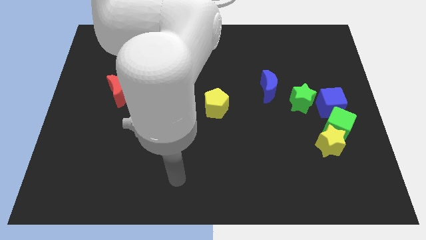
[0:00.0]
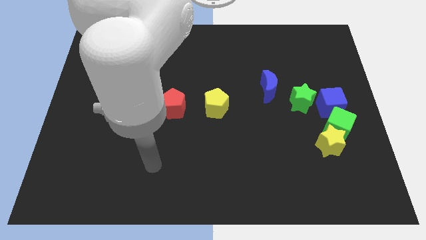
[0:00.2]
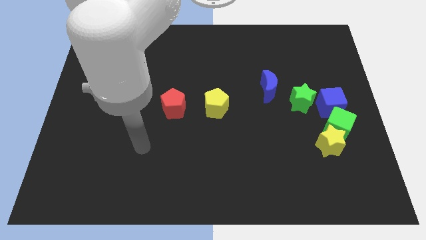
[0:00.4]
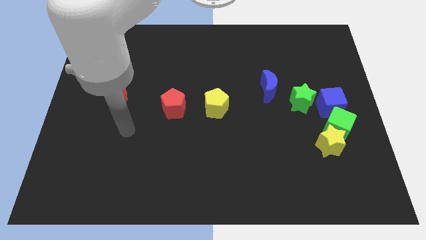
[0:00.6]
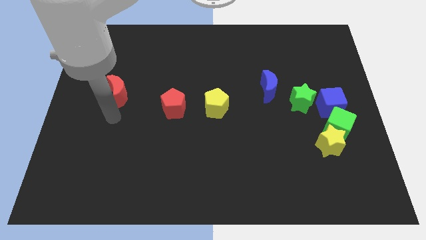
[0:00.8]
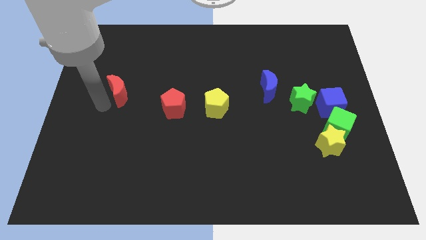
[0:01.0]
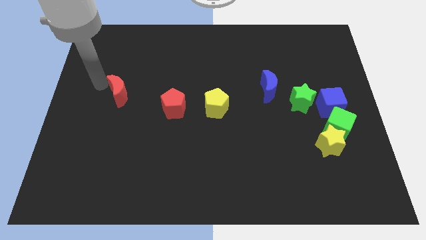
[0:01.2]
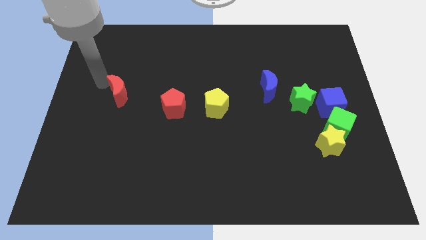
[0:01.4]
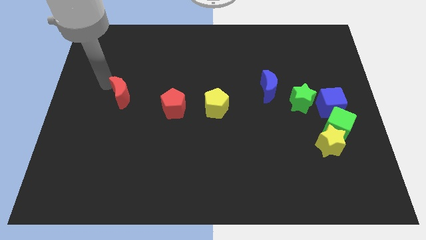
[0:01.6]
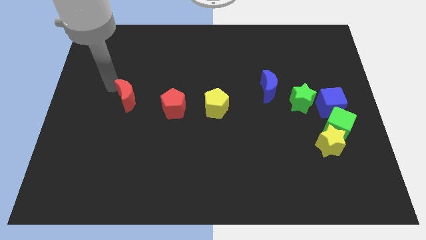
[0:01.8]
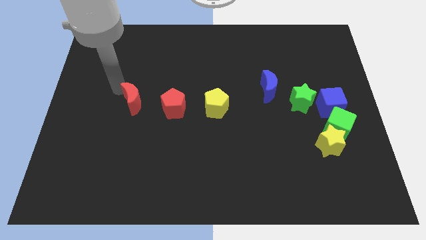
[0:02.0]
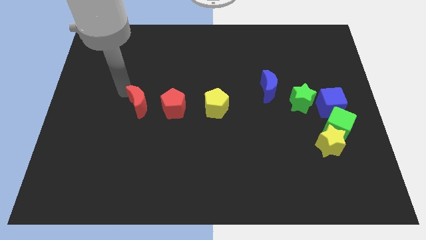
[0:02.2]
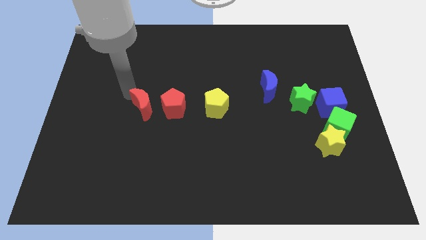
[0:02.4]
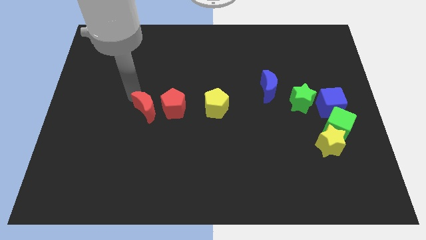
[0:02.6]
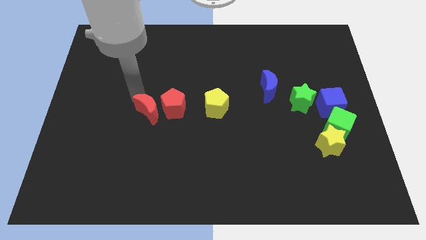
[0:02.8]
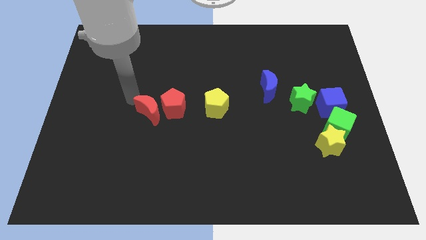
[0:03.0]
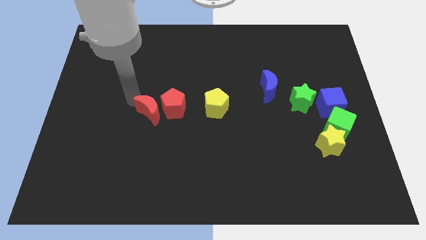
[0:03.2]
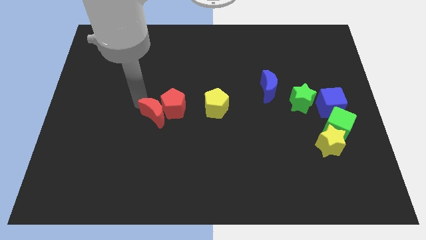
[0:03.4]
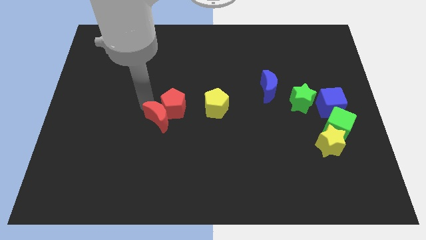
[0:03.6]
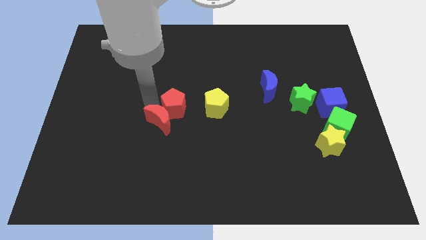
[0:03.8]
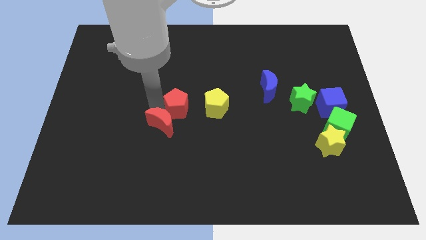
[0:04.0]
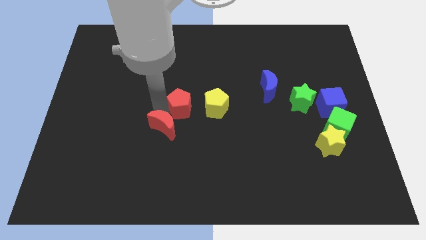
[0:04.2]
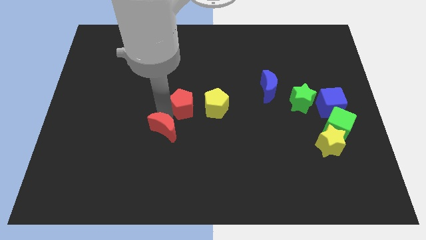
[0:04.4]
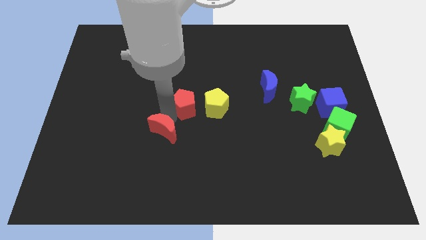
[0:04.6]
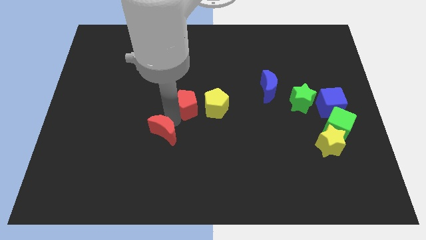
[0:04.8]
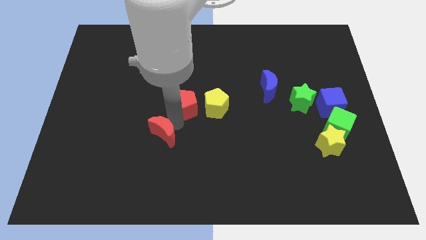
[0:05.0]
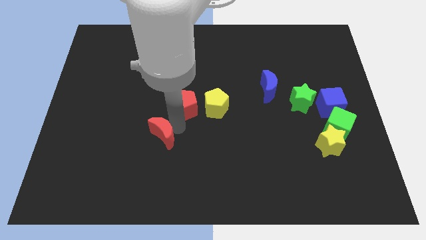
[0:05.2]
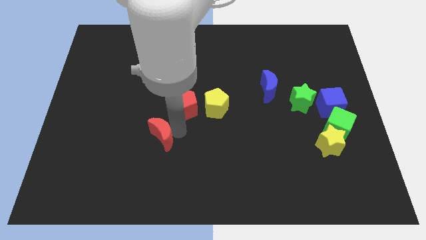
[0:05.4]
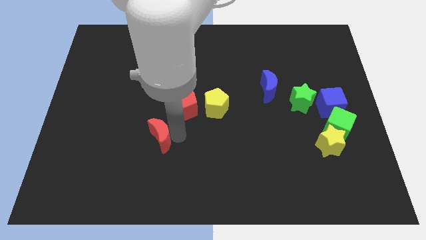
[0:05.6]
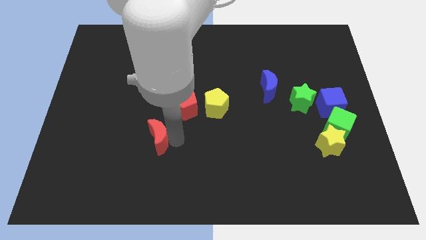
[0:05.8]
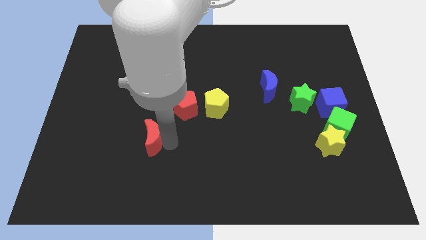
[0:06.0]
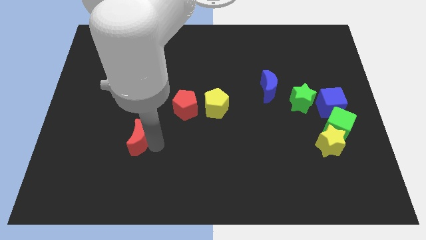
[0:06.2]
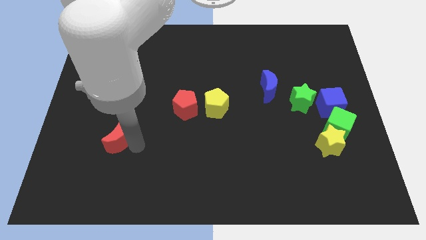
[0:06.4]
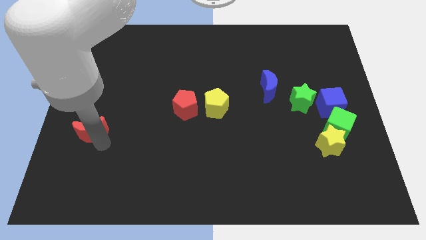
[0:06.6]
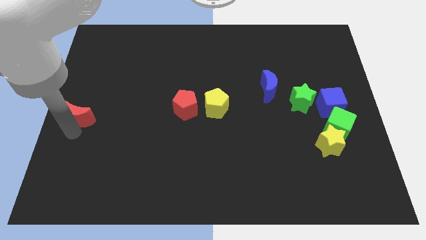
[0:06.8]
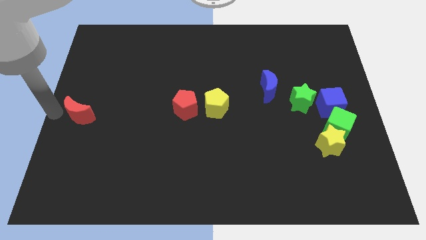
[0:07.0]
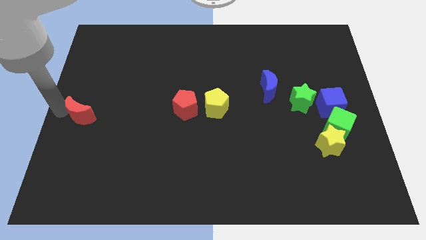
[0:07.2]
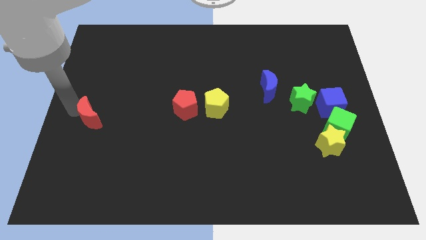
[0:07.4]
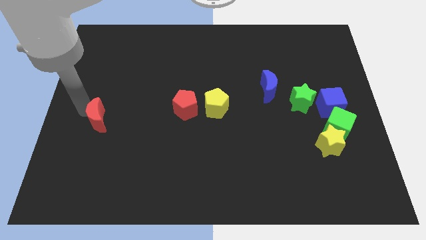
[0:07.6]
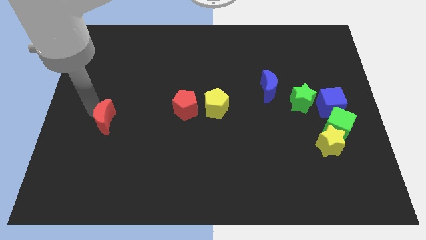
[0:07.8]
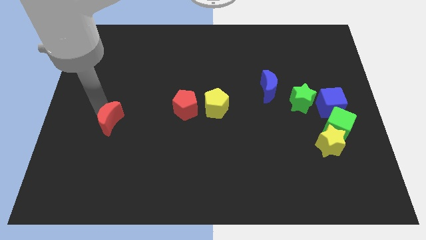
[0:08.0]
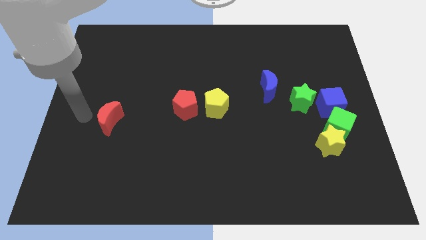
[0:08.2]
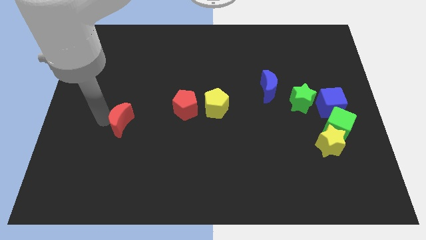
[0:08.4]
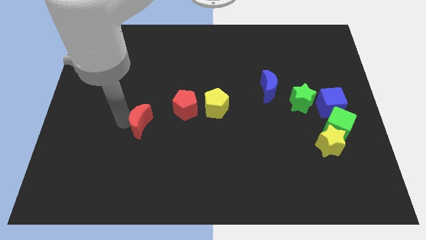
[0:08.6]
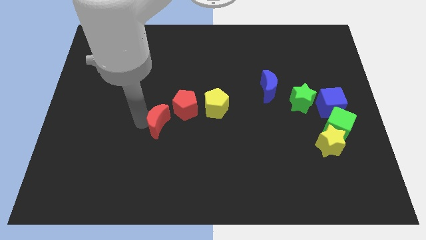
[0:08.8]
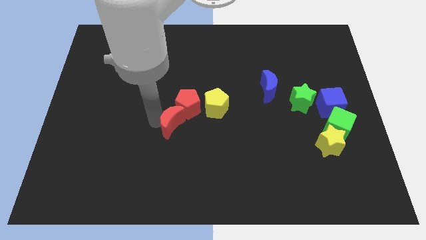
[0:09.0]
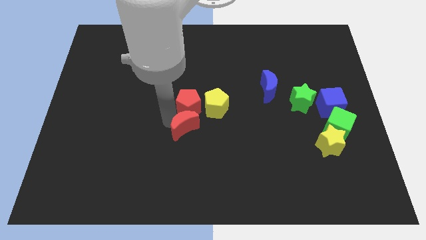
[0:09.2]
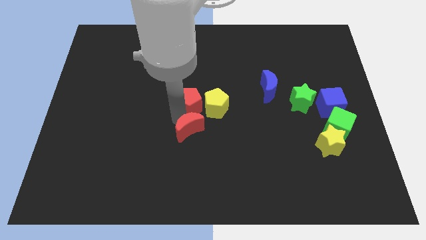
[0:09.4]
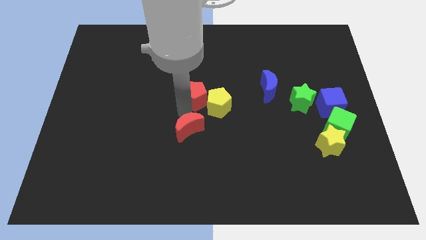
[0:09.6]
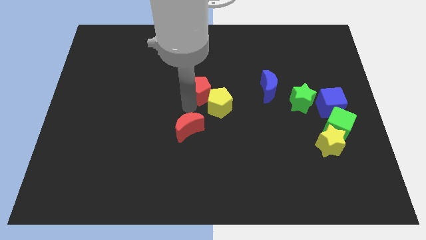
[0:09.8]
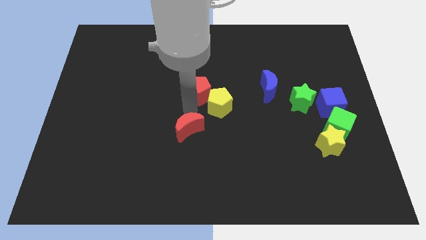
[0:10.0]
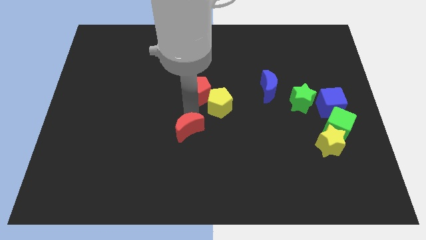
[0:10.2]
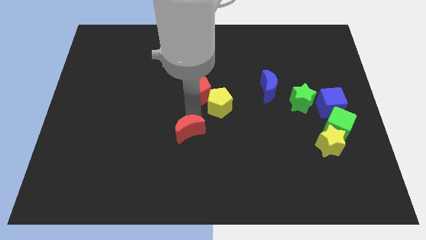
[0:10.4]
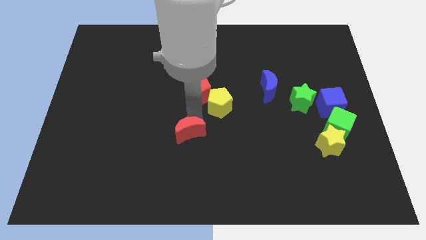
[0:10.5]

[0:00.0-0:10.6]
move the red moon down and to the right diagonally

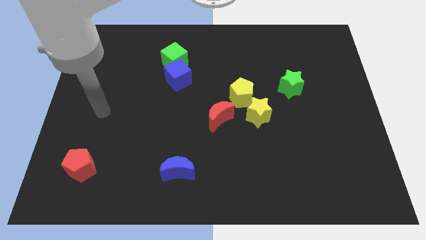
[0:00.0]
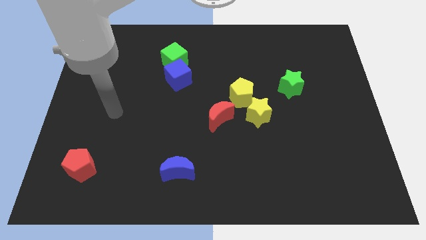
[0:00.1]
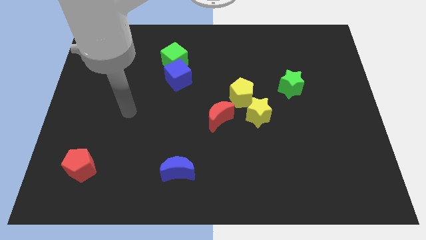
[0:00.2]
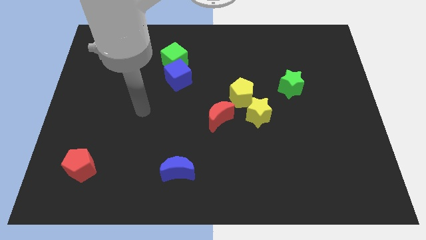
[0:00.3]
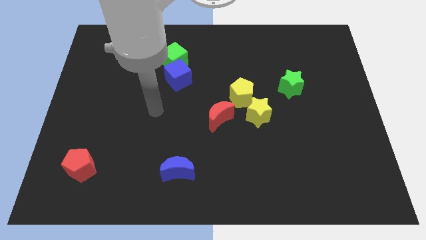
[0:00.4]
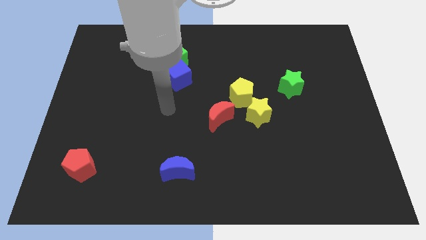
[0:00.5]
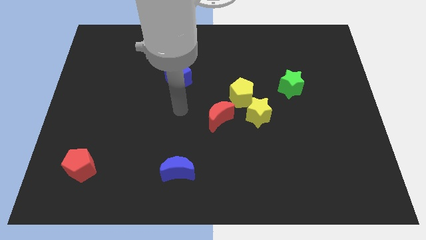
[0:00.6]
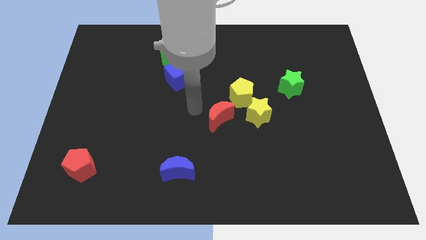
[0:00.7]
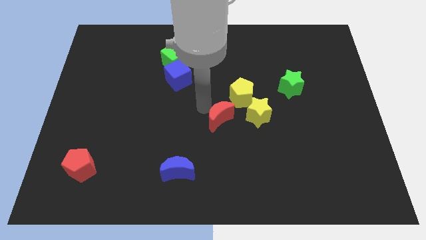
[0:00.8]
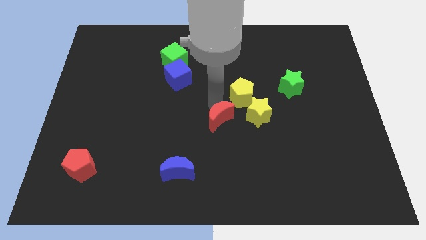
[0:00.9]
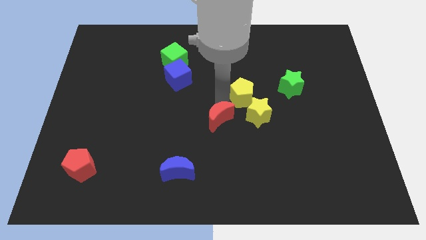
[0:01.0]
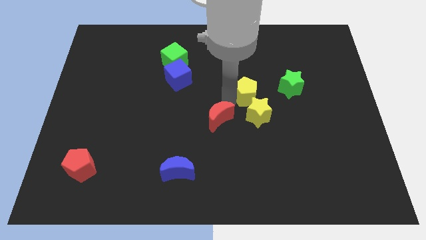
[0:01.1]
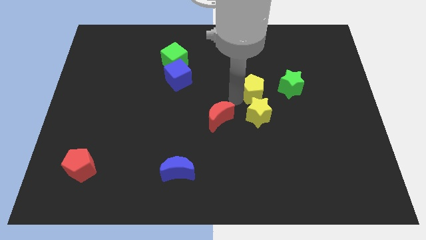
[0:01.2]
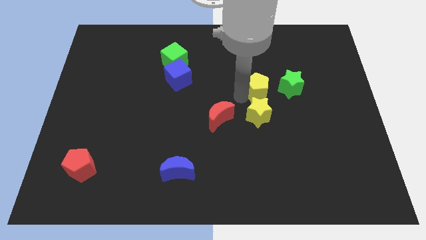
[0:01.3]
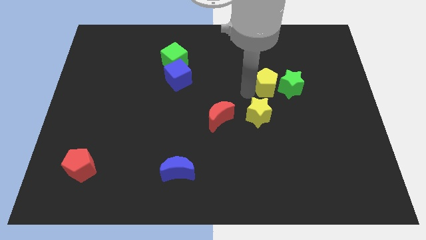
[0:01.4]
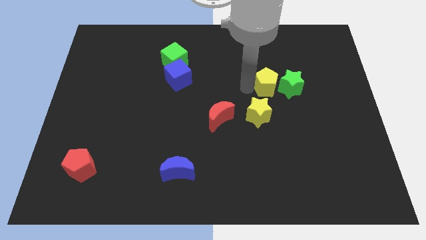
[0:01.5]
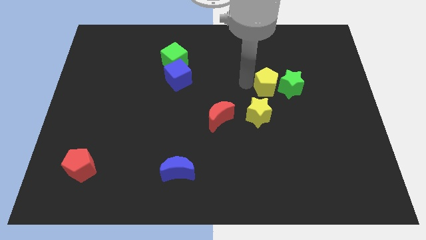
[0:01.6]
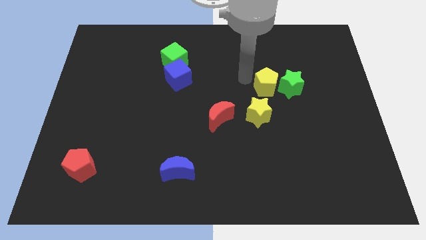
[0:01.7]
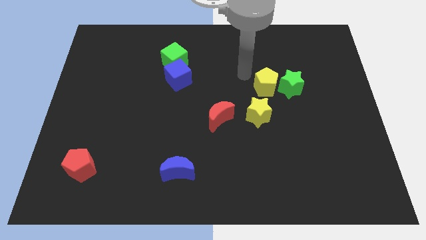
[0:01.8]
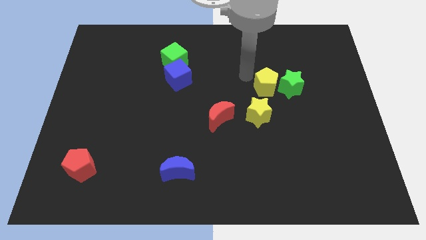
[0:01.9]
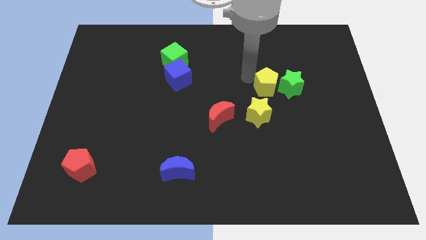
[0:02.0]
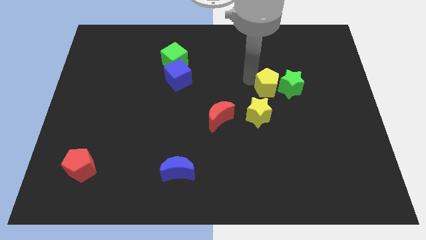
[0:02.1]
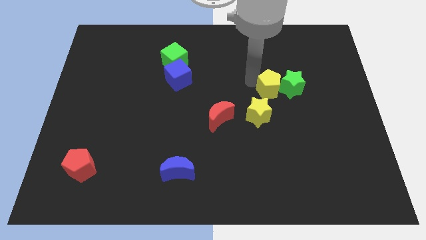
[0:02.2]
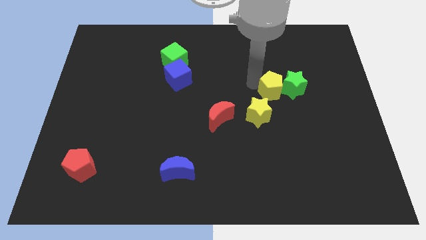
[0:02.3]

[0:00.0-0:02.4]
slide the yellow pentagon to the right somewhat

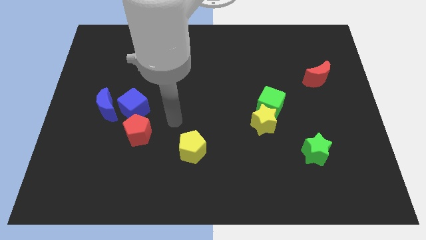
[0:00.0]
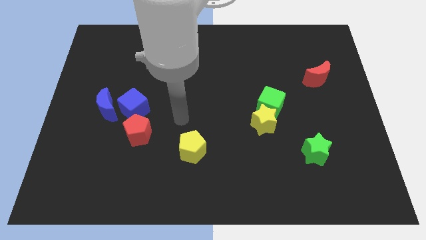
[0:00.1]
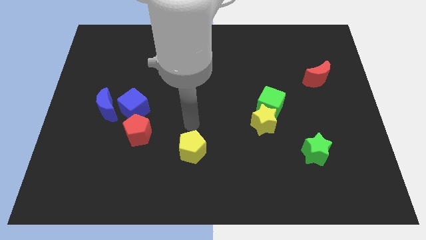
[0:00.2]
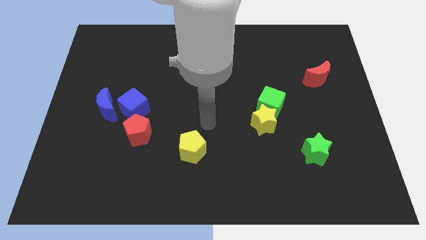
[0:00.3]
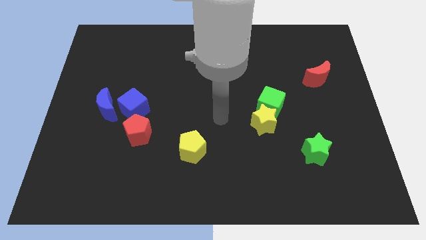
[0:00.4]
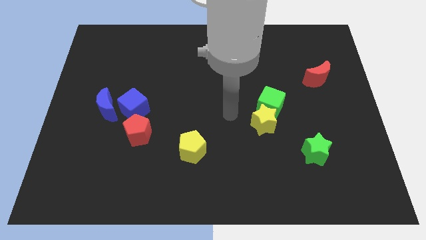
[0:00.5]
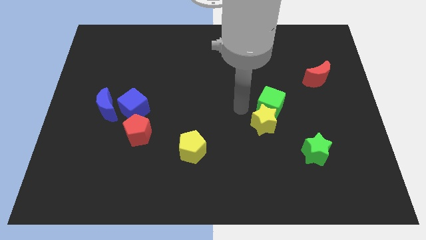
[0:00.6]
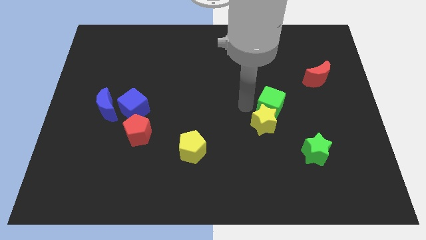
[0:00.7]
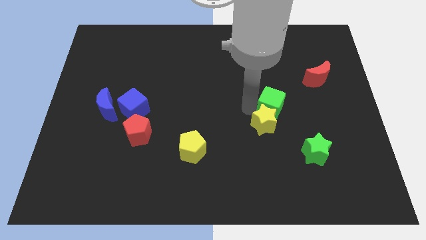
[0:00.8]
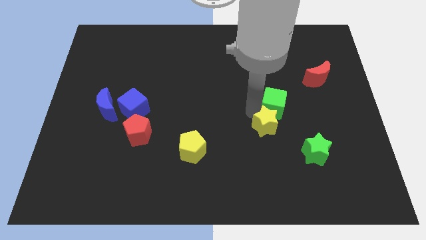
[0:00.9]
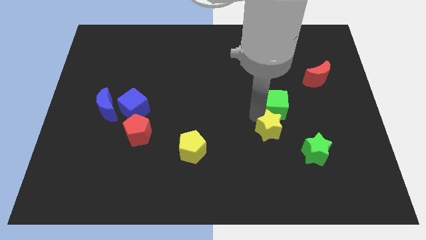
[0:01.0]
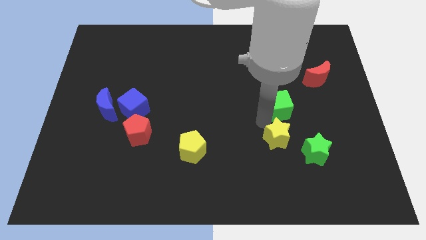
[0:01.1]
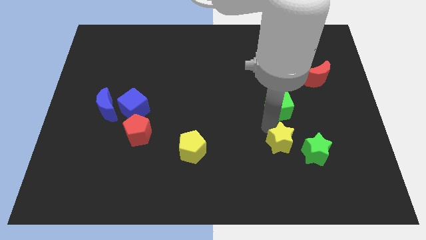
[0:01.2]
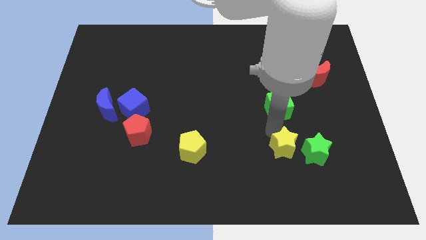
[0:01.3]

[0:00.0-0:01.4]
push the yellow star a little downwards and then right
